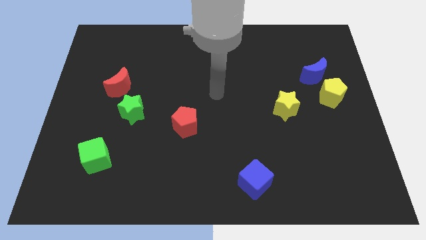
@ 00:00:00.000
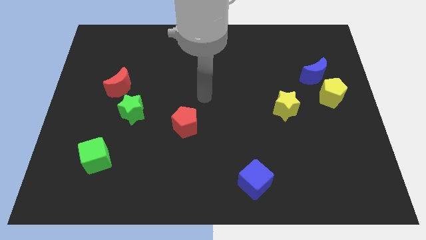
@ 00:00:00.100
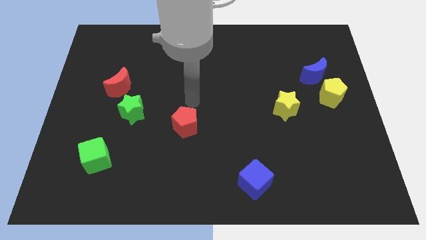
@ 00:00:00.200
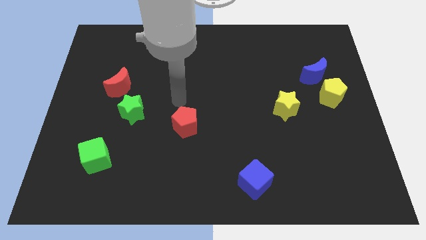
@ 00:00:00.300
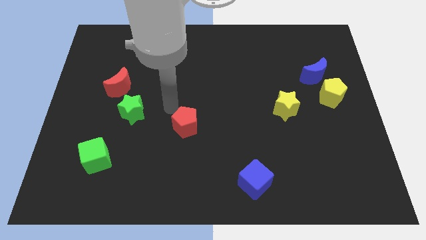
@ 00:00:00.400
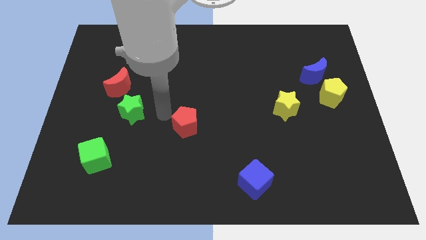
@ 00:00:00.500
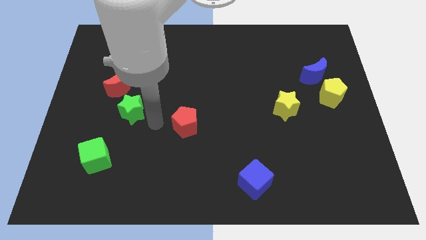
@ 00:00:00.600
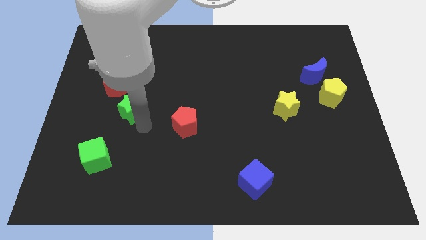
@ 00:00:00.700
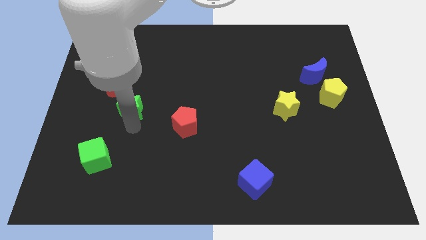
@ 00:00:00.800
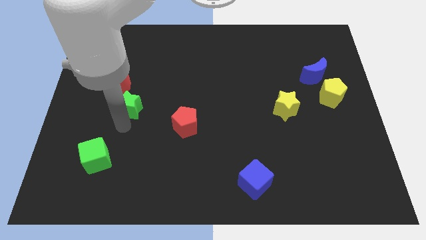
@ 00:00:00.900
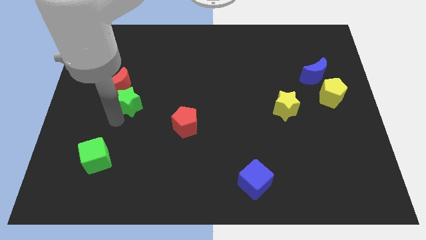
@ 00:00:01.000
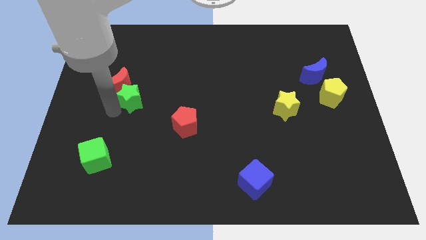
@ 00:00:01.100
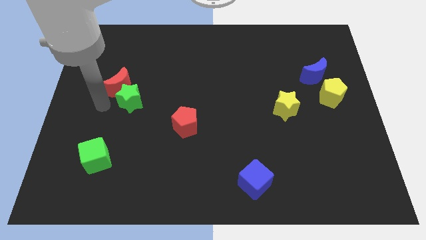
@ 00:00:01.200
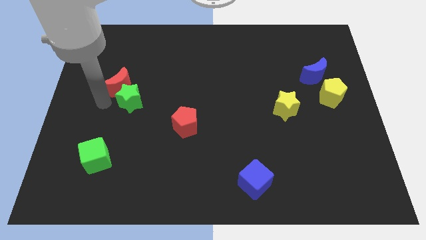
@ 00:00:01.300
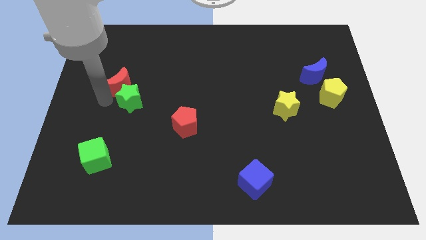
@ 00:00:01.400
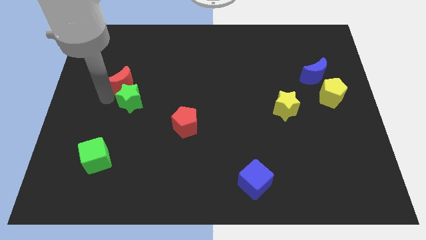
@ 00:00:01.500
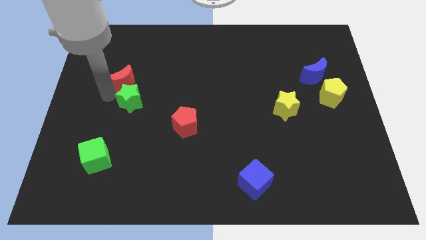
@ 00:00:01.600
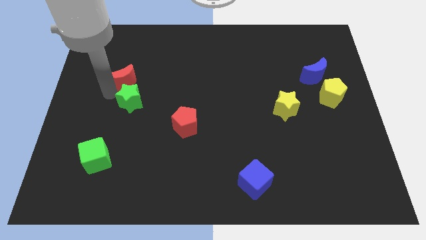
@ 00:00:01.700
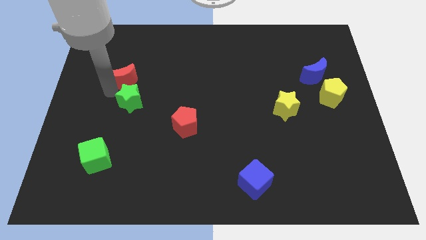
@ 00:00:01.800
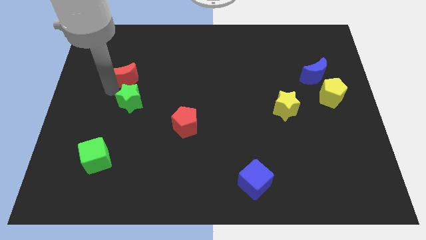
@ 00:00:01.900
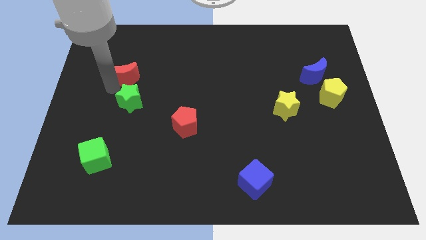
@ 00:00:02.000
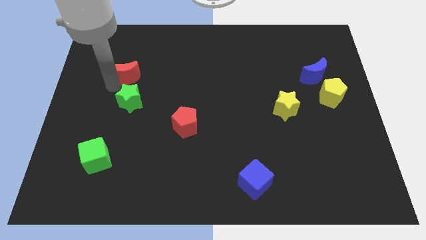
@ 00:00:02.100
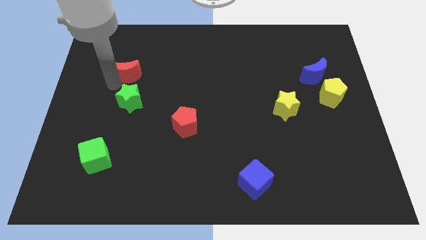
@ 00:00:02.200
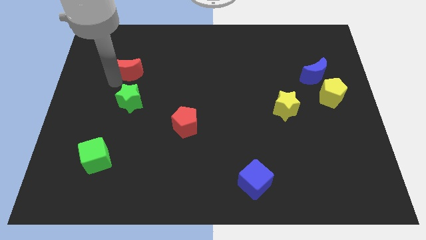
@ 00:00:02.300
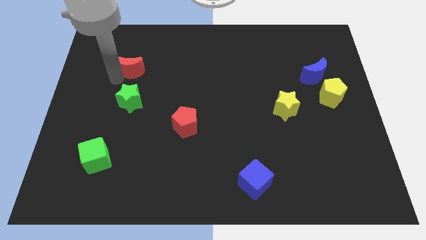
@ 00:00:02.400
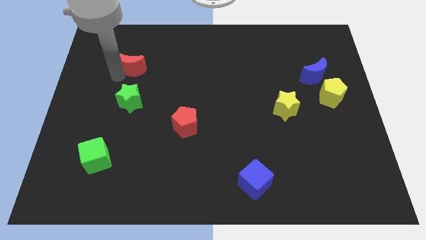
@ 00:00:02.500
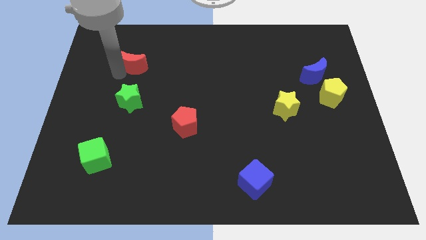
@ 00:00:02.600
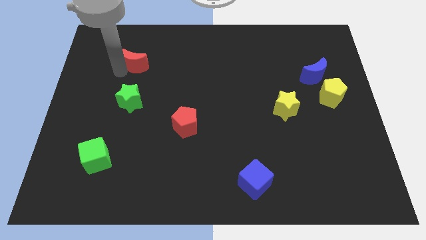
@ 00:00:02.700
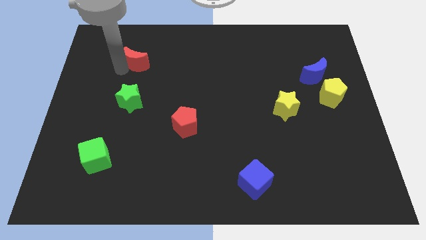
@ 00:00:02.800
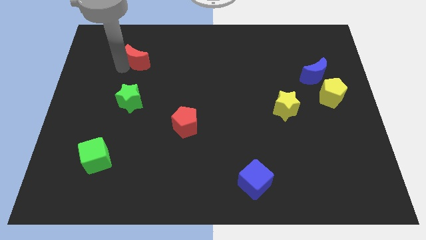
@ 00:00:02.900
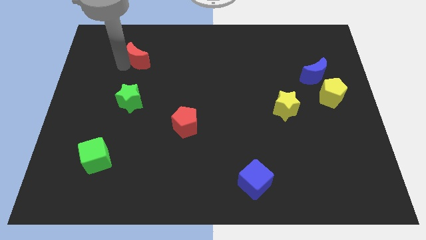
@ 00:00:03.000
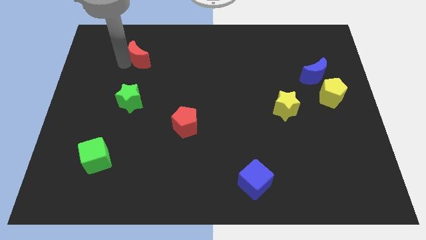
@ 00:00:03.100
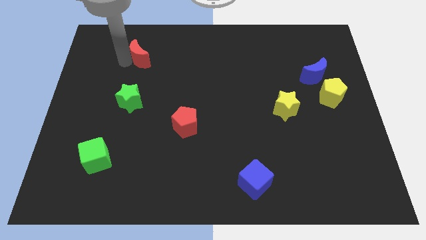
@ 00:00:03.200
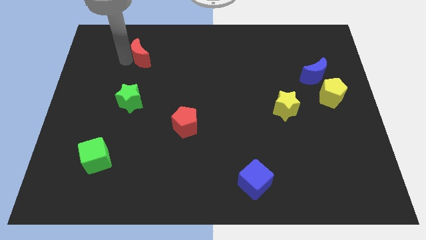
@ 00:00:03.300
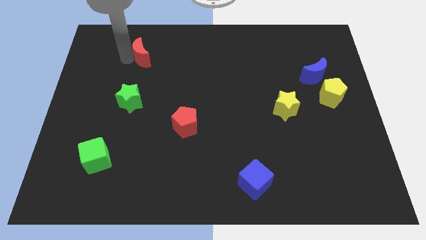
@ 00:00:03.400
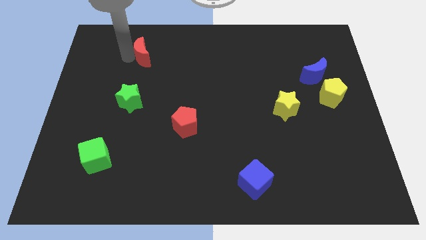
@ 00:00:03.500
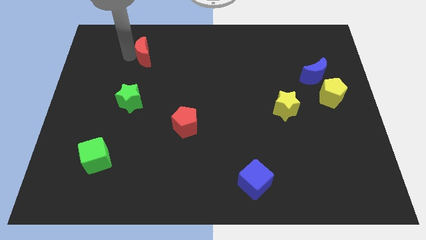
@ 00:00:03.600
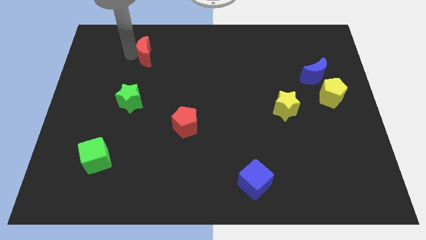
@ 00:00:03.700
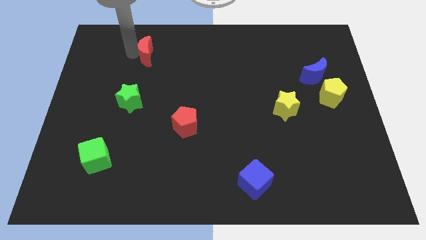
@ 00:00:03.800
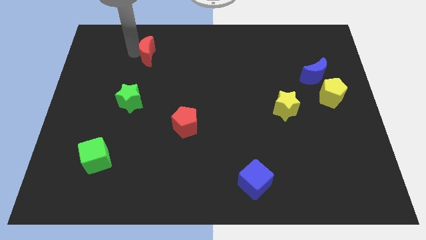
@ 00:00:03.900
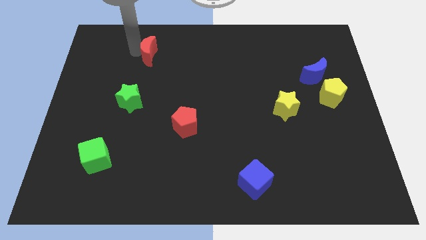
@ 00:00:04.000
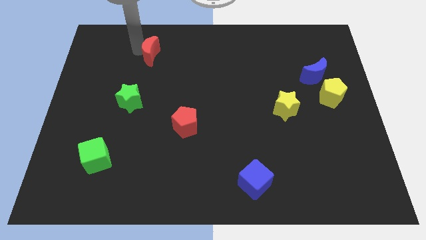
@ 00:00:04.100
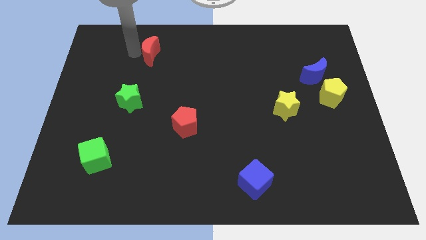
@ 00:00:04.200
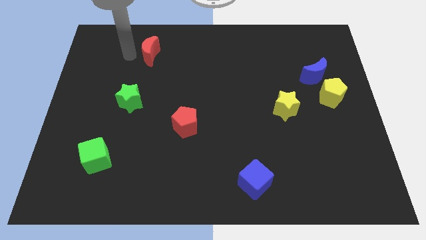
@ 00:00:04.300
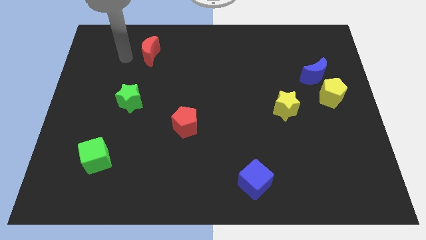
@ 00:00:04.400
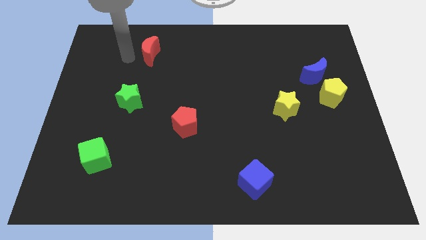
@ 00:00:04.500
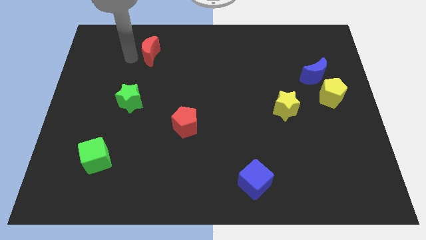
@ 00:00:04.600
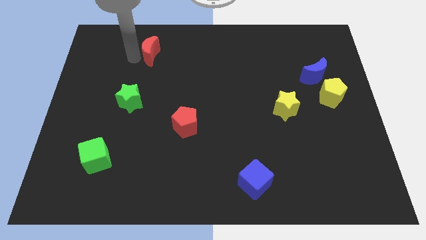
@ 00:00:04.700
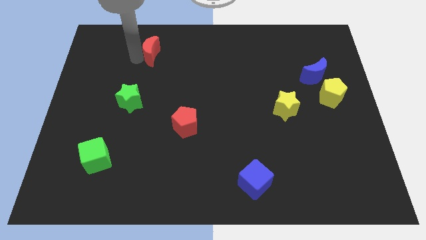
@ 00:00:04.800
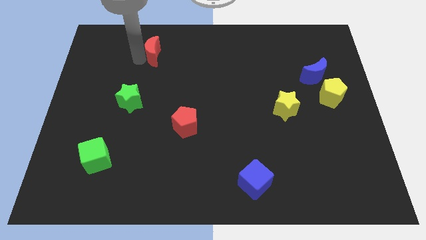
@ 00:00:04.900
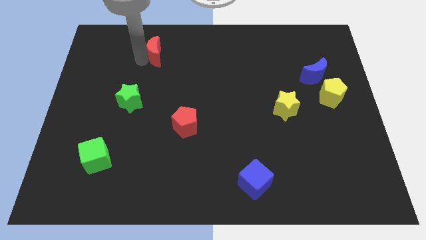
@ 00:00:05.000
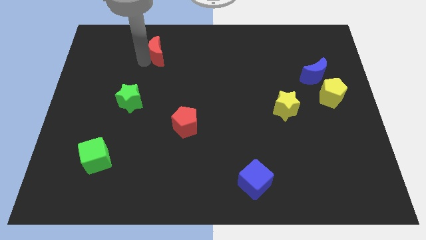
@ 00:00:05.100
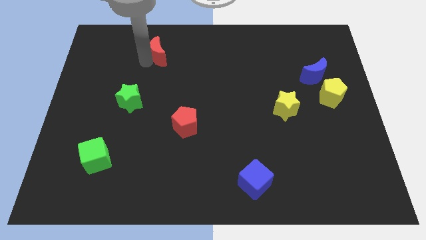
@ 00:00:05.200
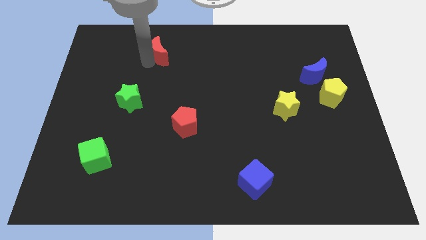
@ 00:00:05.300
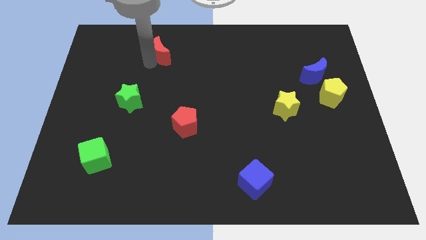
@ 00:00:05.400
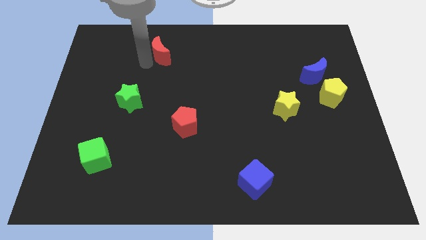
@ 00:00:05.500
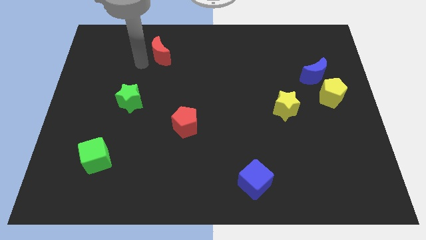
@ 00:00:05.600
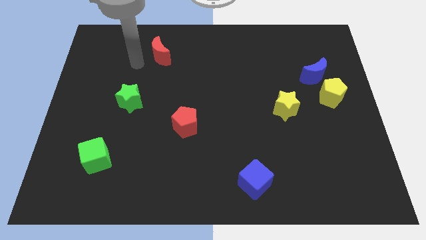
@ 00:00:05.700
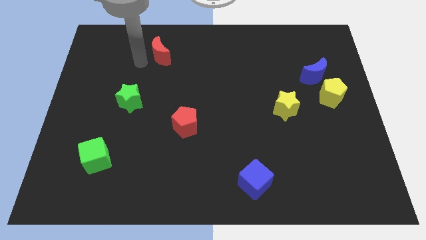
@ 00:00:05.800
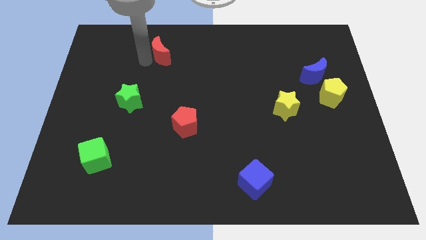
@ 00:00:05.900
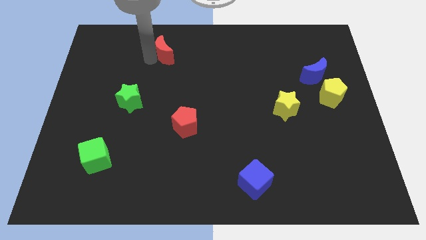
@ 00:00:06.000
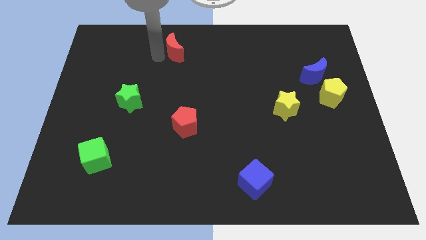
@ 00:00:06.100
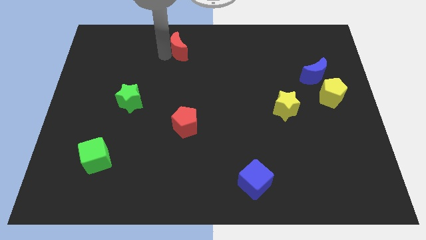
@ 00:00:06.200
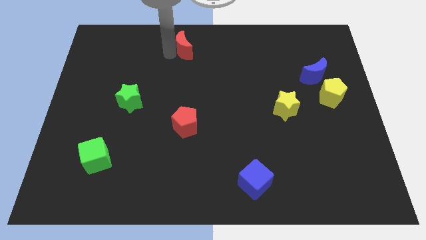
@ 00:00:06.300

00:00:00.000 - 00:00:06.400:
move the red moon to the towards your base
